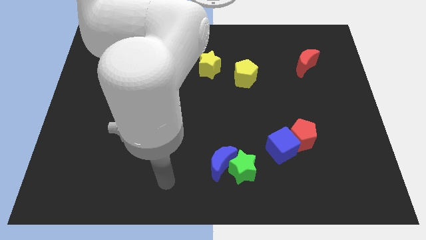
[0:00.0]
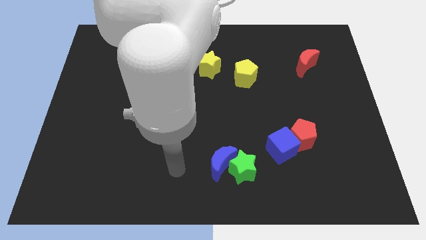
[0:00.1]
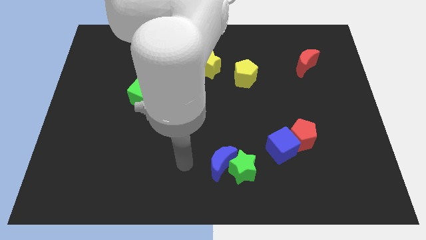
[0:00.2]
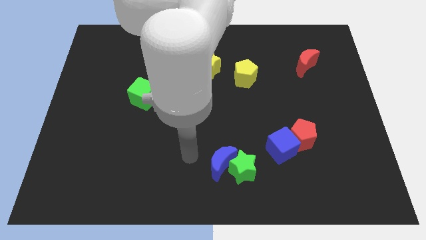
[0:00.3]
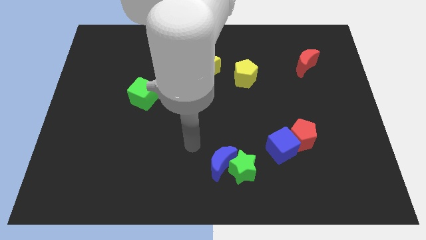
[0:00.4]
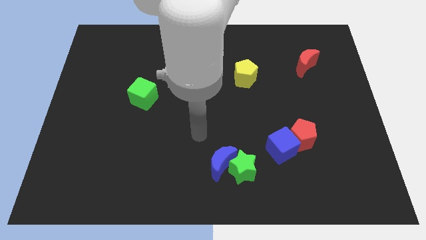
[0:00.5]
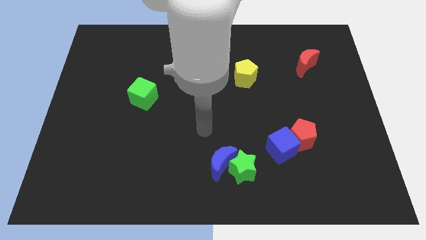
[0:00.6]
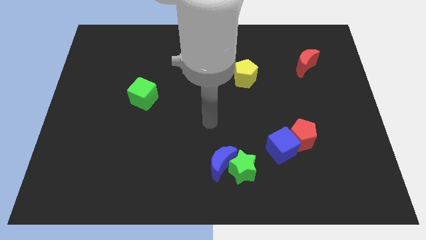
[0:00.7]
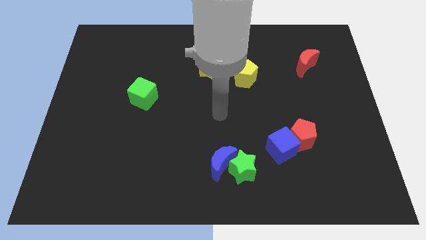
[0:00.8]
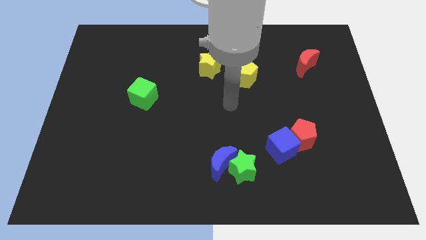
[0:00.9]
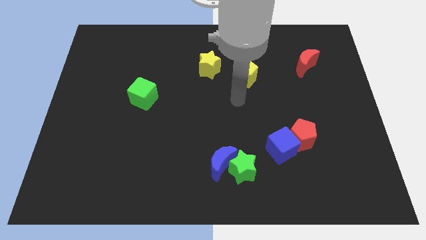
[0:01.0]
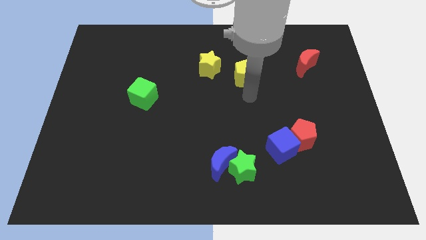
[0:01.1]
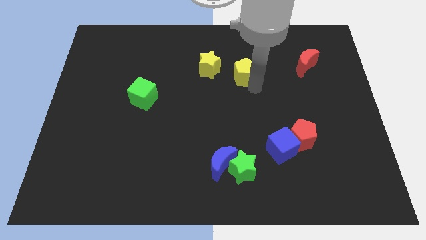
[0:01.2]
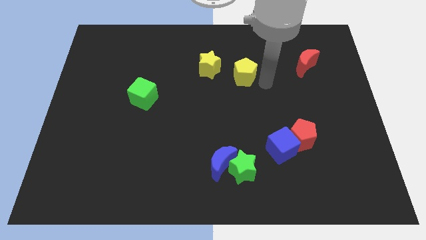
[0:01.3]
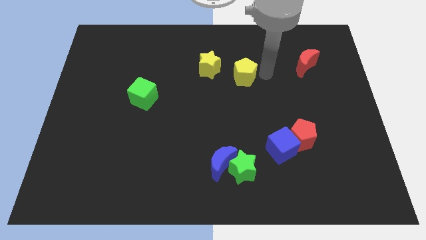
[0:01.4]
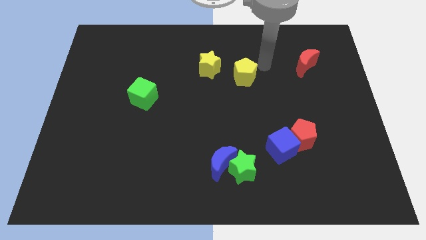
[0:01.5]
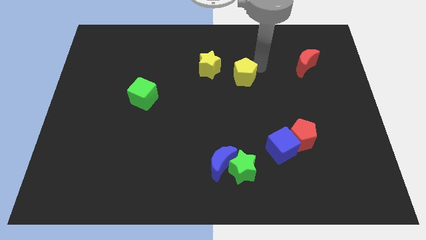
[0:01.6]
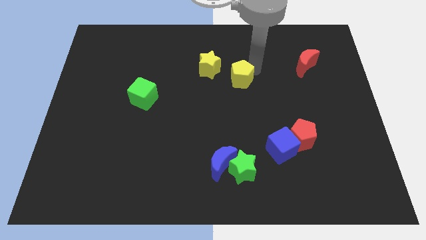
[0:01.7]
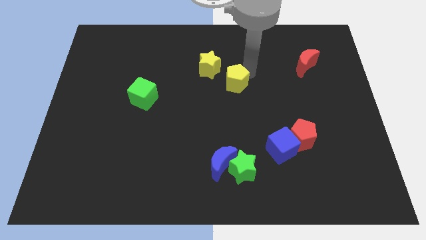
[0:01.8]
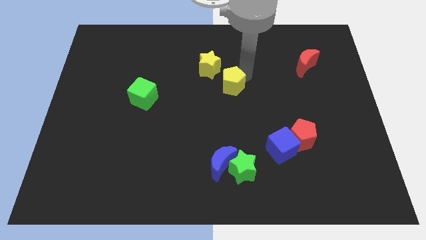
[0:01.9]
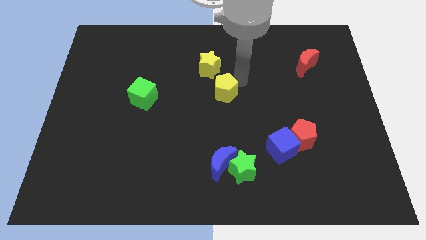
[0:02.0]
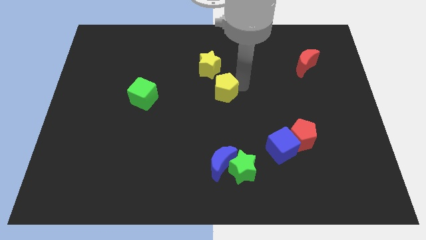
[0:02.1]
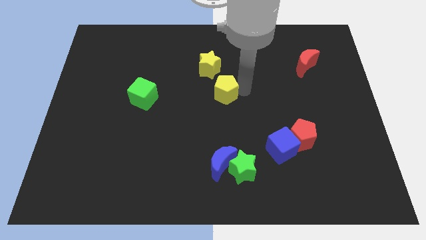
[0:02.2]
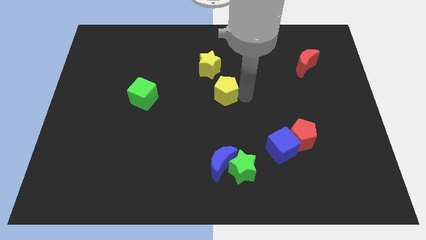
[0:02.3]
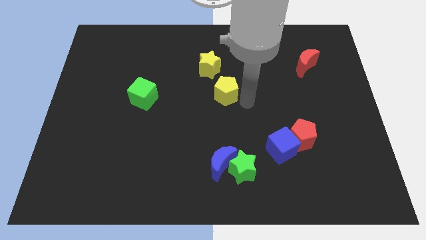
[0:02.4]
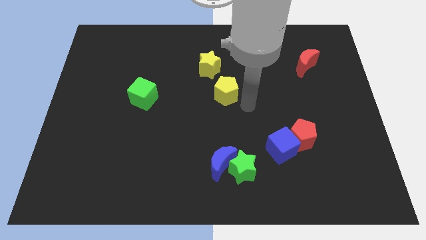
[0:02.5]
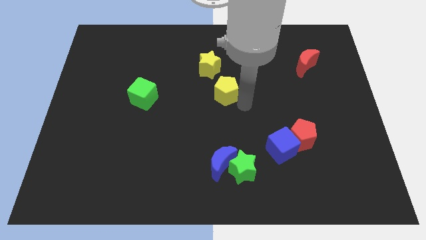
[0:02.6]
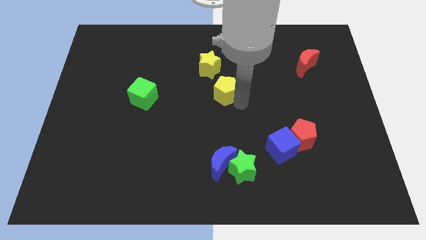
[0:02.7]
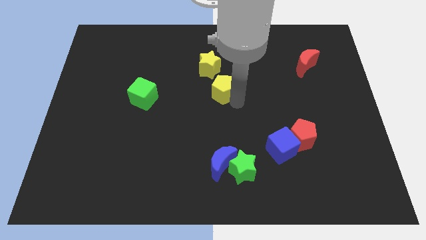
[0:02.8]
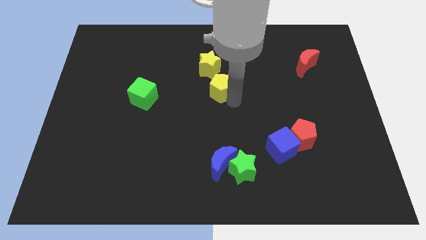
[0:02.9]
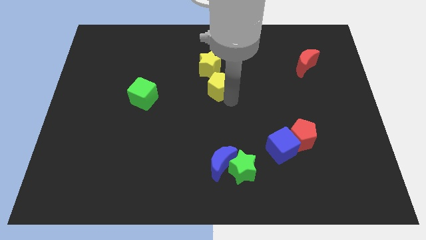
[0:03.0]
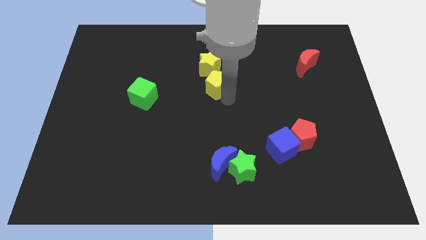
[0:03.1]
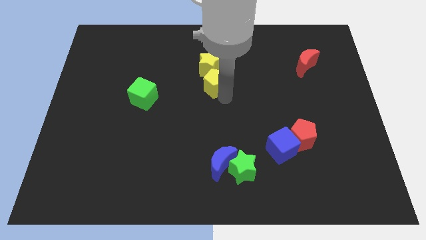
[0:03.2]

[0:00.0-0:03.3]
push the yellow pentagon to the left slightly

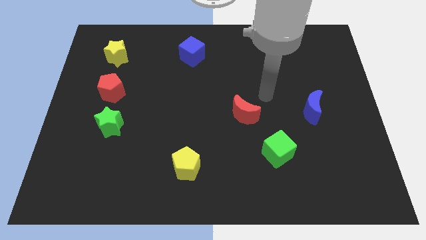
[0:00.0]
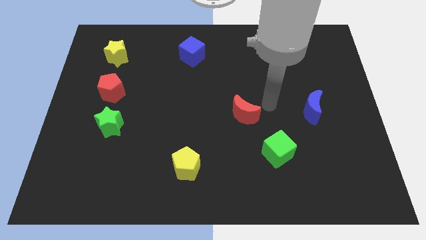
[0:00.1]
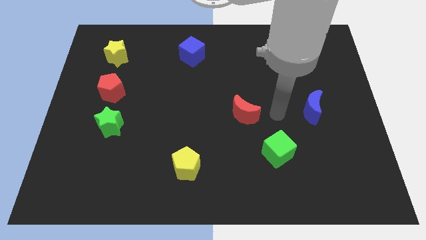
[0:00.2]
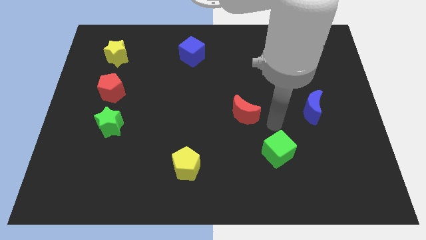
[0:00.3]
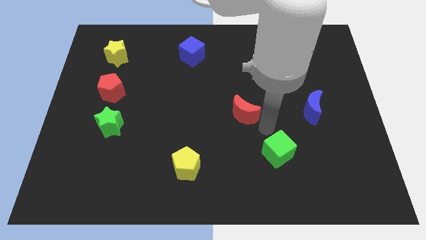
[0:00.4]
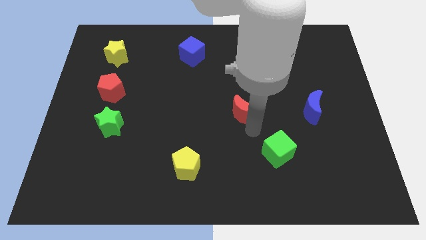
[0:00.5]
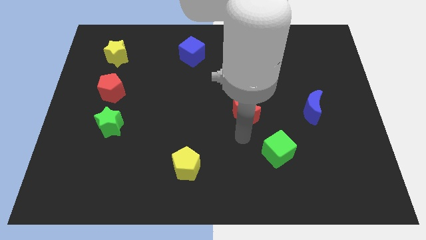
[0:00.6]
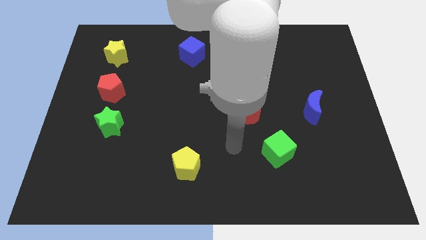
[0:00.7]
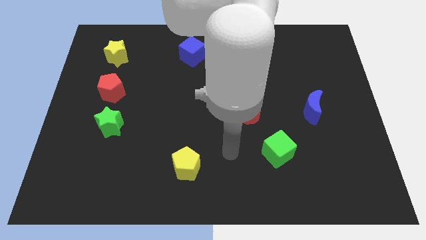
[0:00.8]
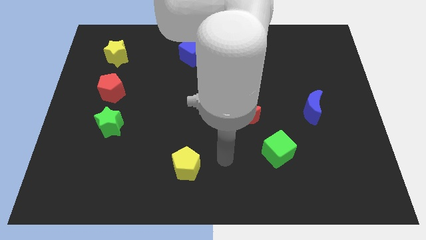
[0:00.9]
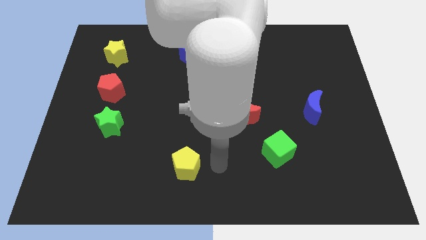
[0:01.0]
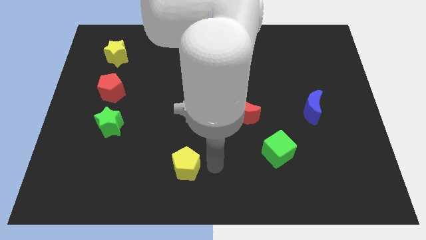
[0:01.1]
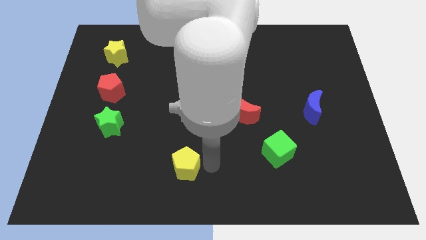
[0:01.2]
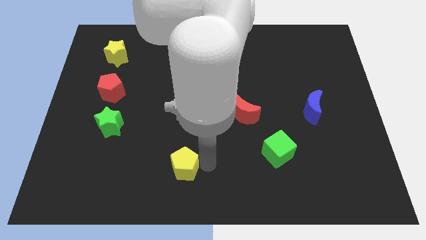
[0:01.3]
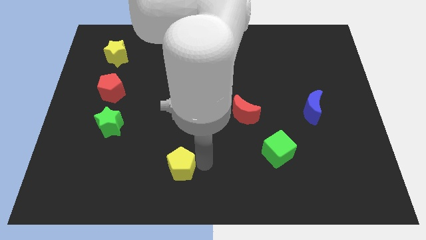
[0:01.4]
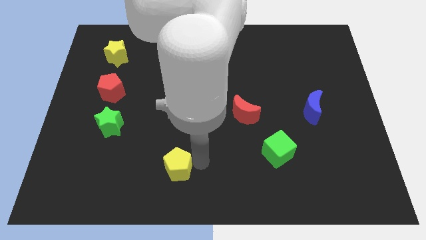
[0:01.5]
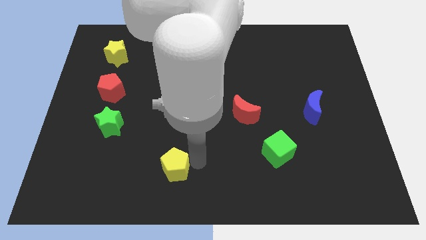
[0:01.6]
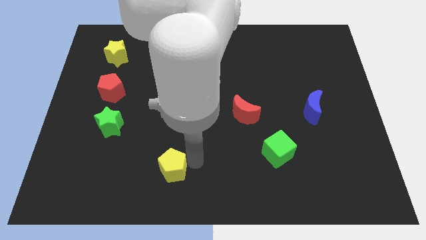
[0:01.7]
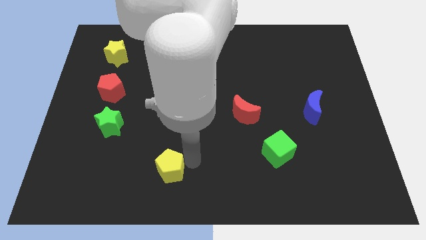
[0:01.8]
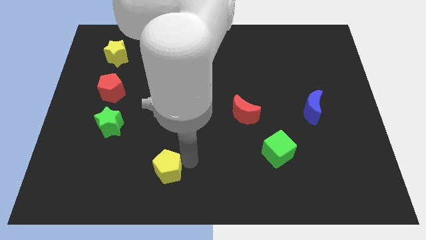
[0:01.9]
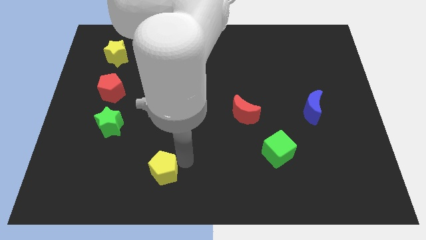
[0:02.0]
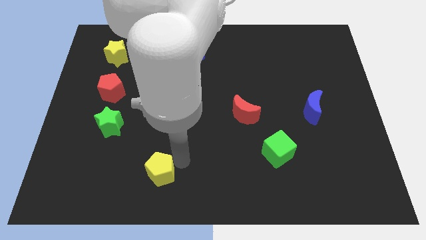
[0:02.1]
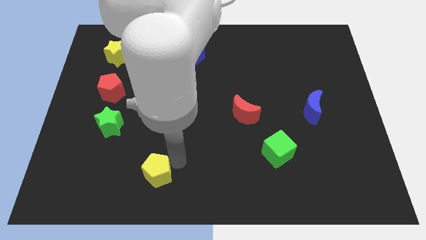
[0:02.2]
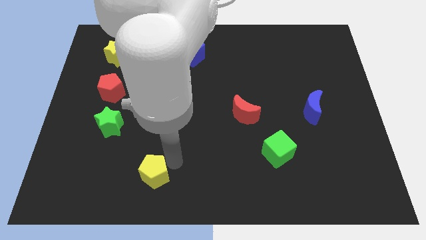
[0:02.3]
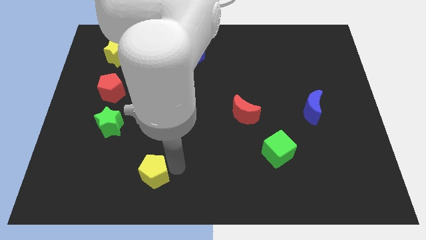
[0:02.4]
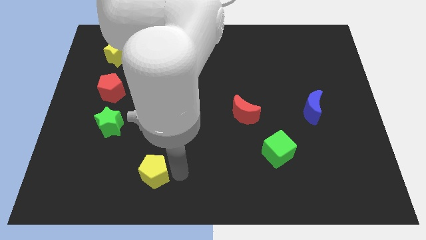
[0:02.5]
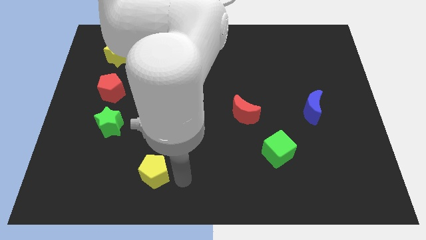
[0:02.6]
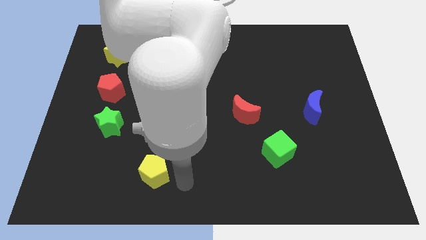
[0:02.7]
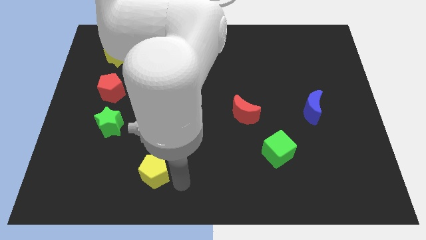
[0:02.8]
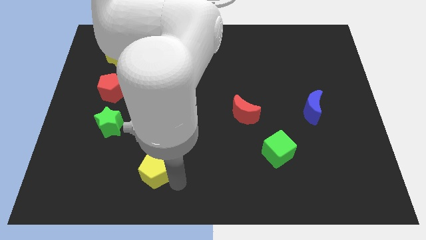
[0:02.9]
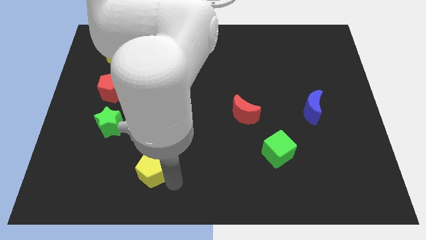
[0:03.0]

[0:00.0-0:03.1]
push the yellow pentagon a bit left

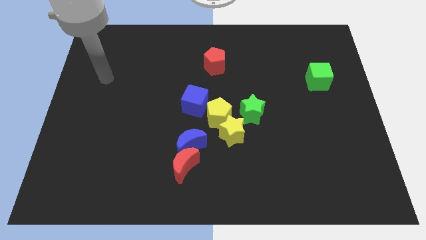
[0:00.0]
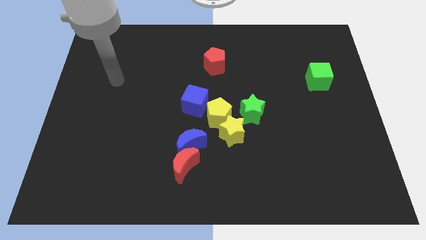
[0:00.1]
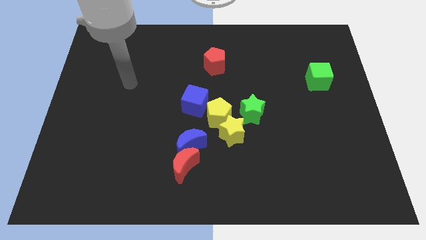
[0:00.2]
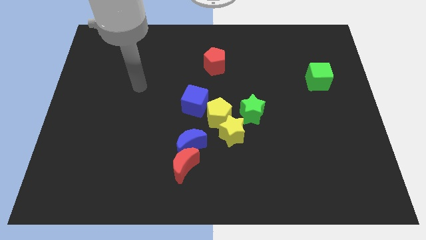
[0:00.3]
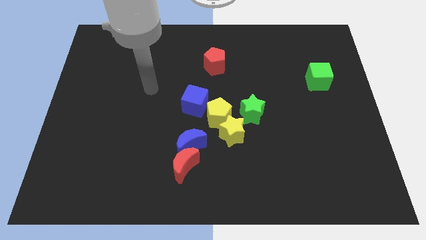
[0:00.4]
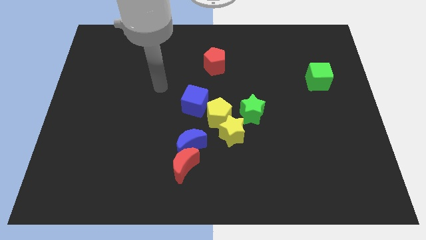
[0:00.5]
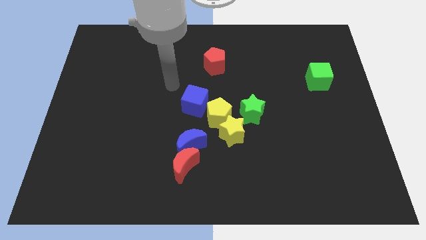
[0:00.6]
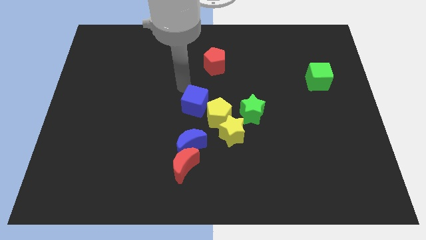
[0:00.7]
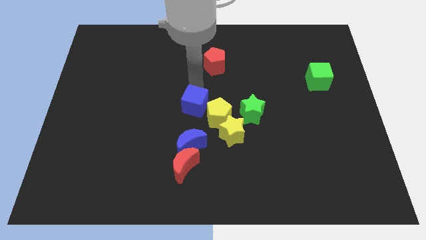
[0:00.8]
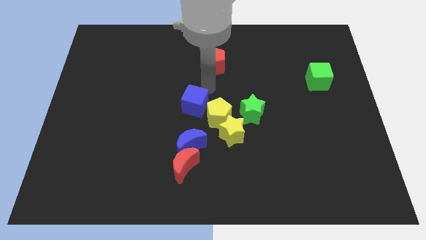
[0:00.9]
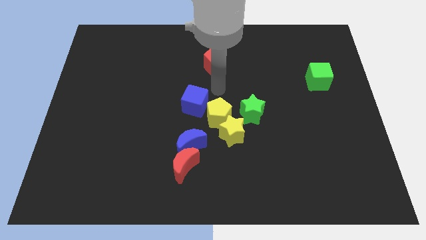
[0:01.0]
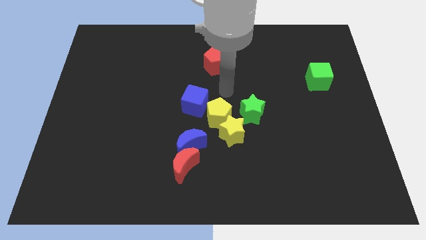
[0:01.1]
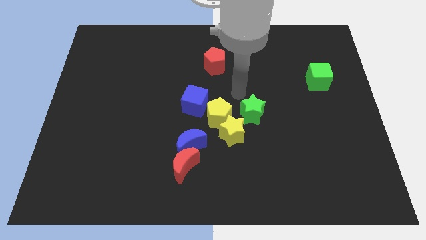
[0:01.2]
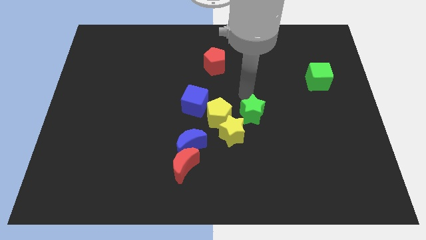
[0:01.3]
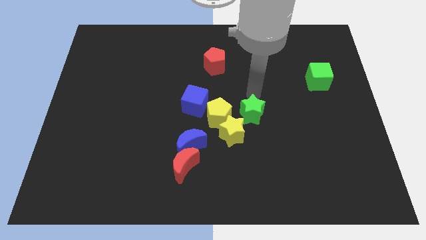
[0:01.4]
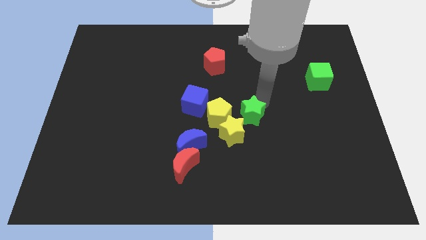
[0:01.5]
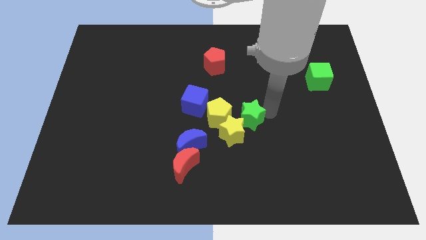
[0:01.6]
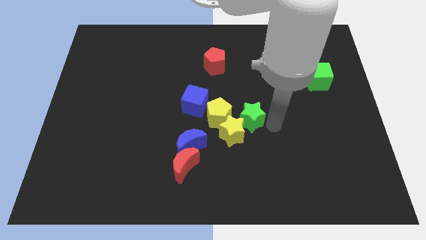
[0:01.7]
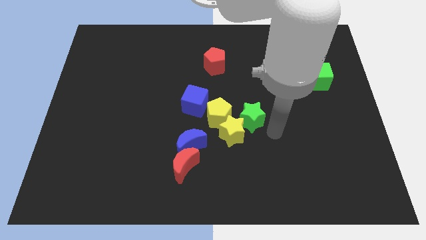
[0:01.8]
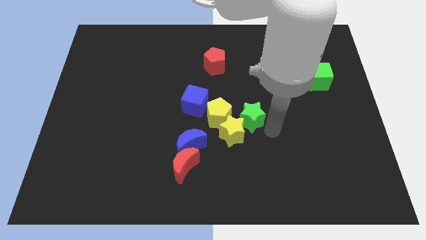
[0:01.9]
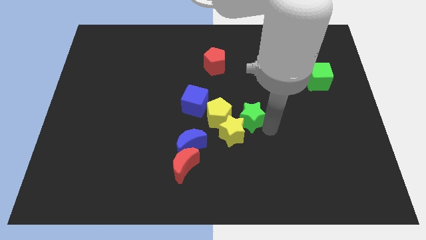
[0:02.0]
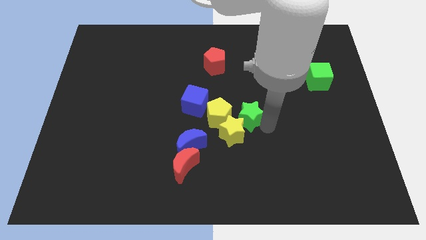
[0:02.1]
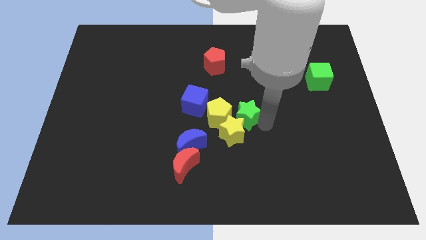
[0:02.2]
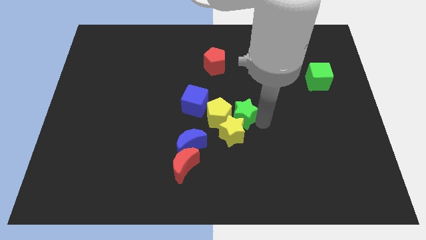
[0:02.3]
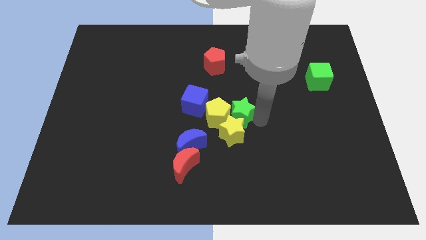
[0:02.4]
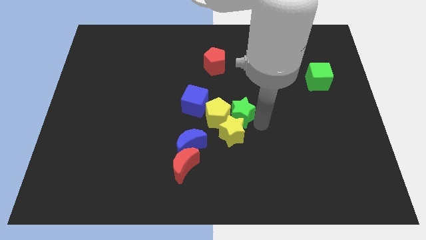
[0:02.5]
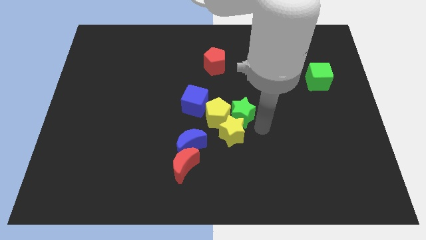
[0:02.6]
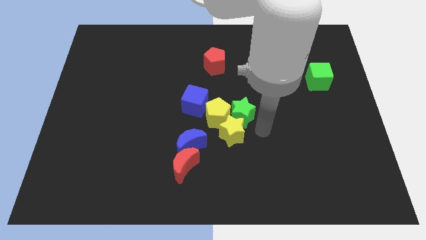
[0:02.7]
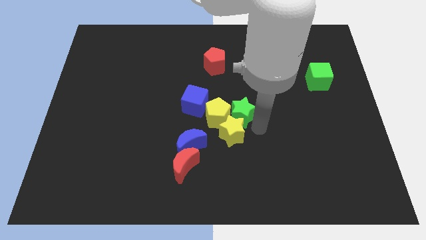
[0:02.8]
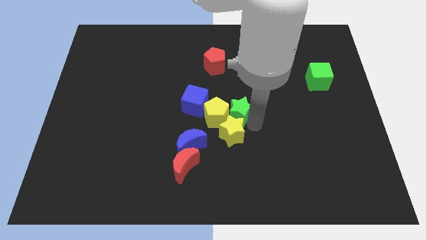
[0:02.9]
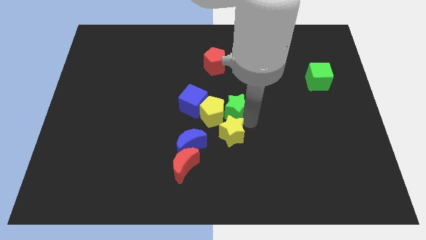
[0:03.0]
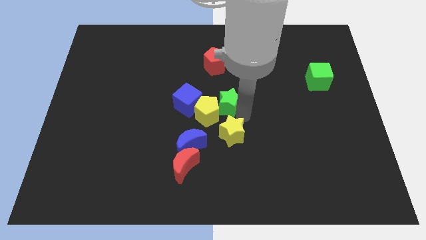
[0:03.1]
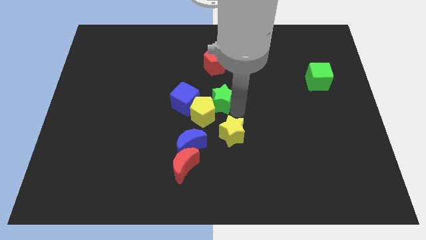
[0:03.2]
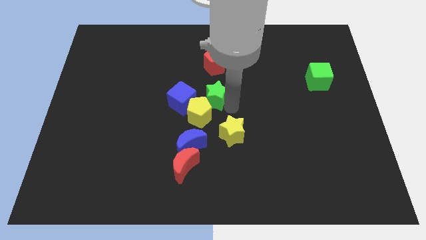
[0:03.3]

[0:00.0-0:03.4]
slightly push the green star left
